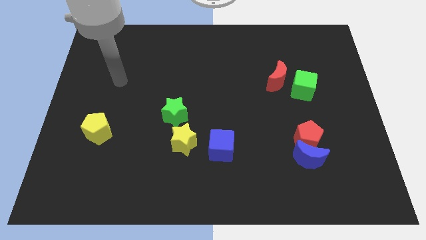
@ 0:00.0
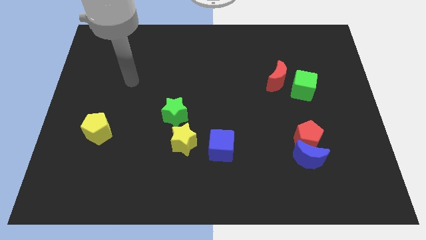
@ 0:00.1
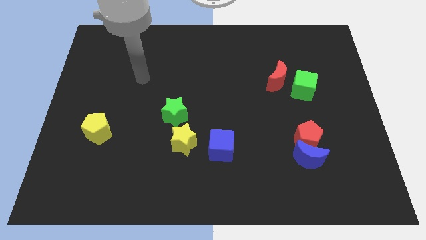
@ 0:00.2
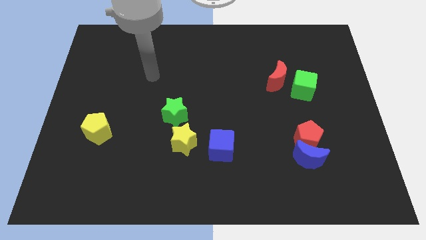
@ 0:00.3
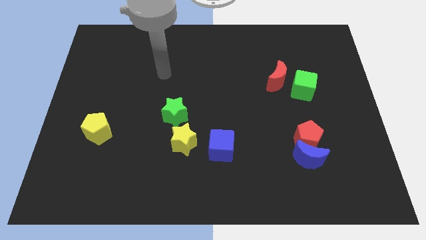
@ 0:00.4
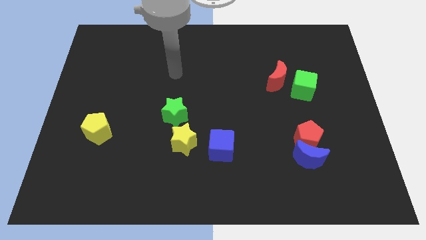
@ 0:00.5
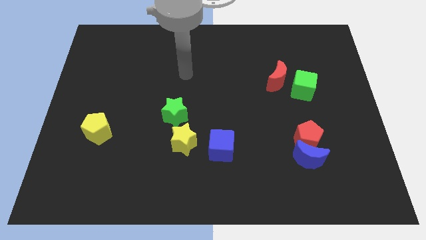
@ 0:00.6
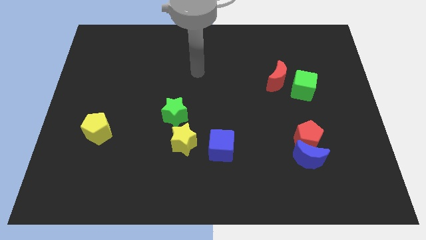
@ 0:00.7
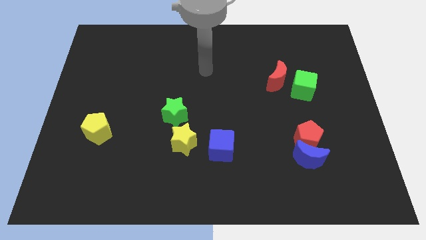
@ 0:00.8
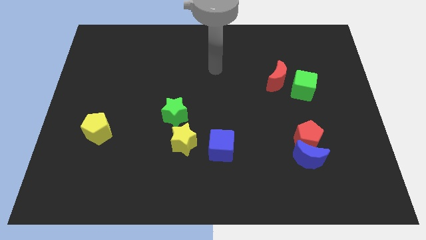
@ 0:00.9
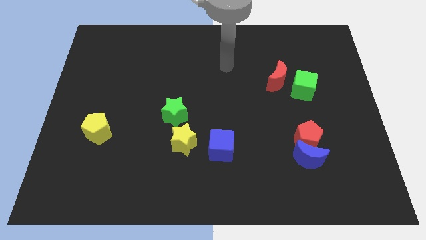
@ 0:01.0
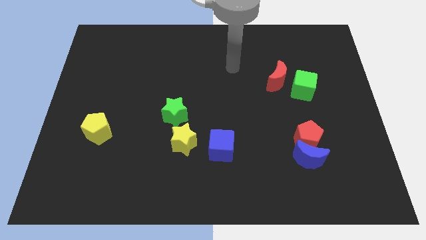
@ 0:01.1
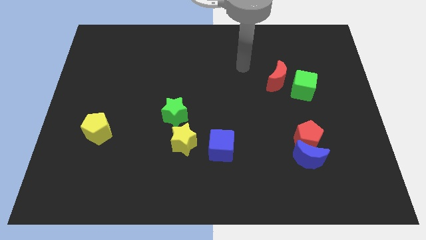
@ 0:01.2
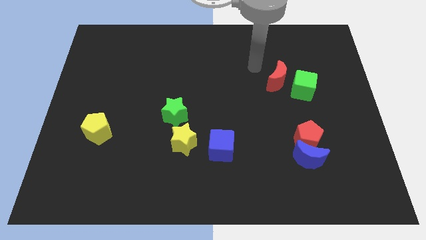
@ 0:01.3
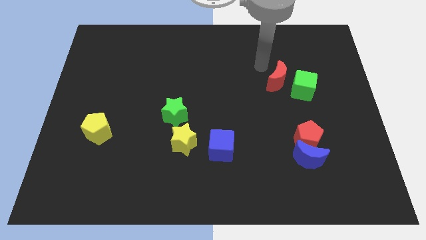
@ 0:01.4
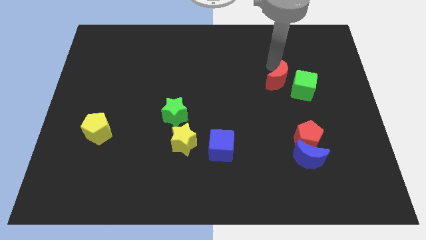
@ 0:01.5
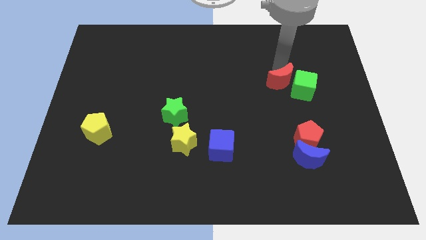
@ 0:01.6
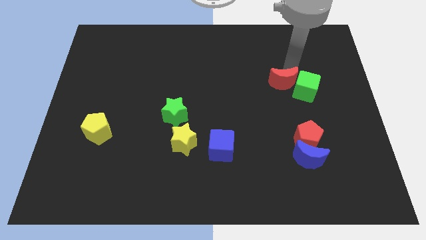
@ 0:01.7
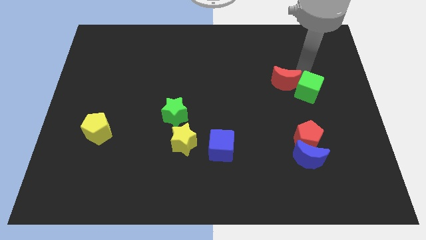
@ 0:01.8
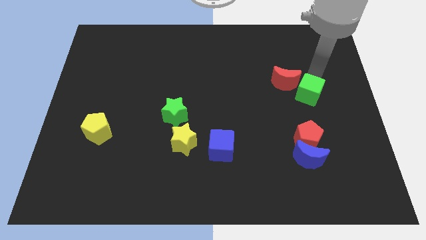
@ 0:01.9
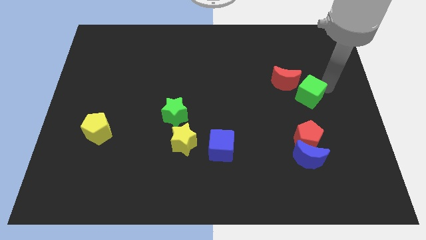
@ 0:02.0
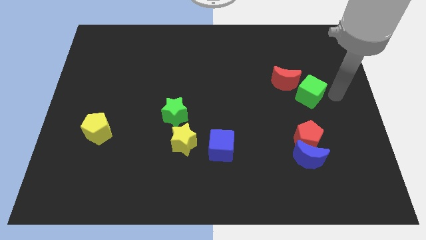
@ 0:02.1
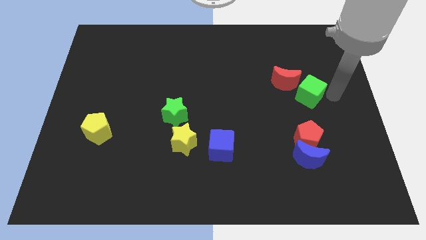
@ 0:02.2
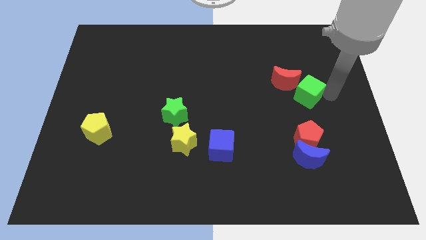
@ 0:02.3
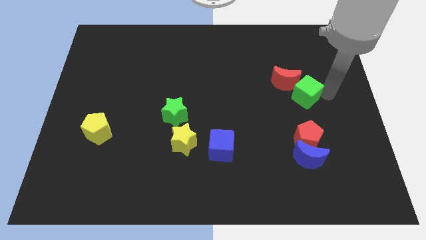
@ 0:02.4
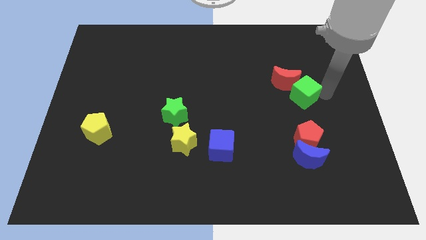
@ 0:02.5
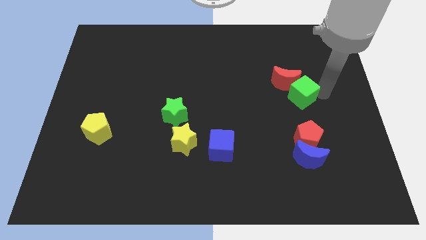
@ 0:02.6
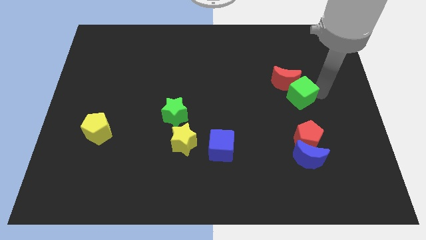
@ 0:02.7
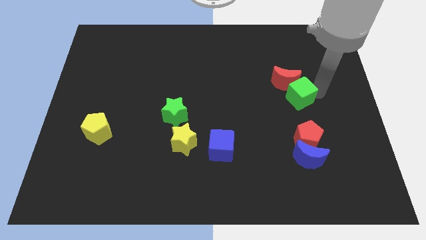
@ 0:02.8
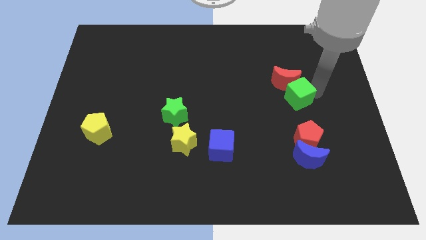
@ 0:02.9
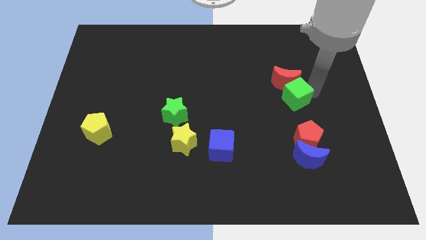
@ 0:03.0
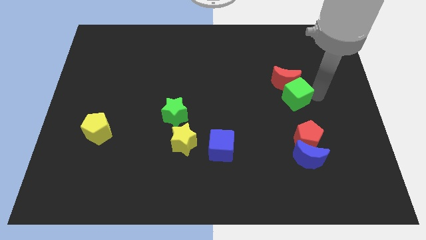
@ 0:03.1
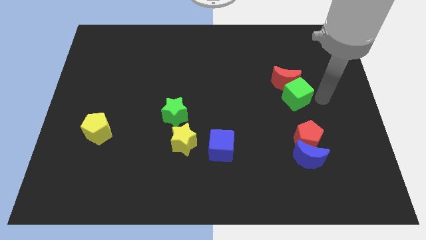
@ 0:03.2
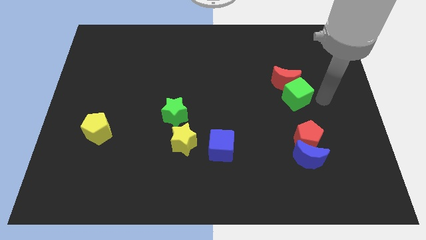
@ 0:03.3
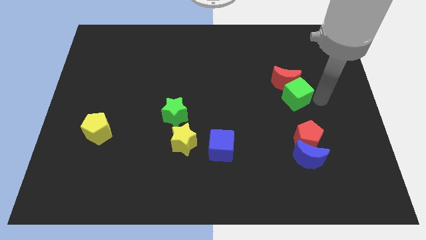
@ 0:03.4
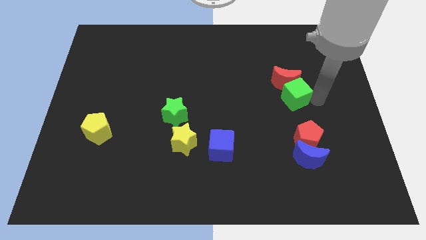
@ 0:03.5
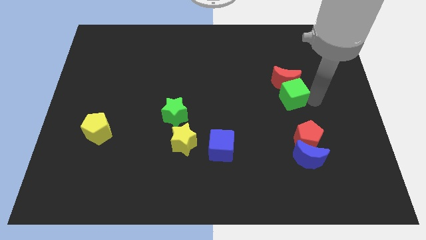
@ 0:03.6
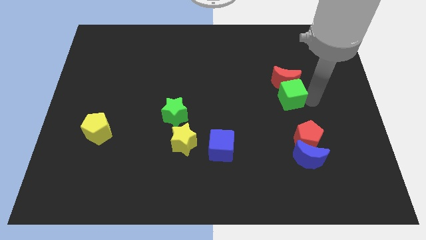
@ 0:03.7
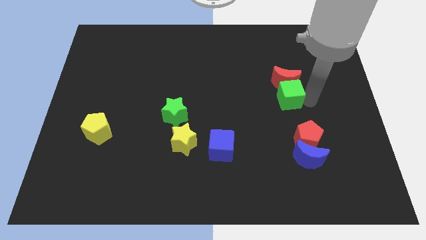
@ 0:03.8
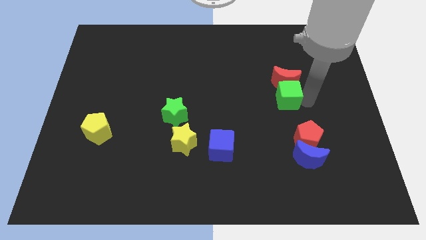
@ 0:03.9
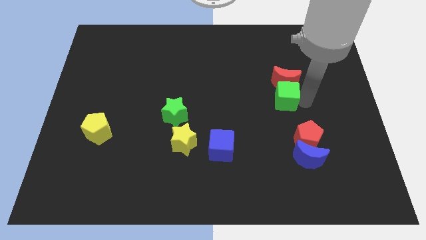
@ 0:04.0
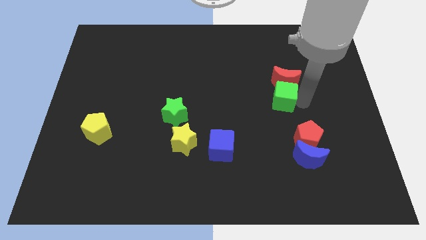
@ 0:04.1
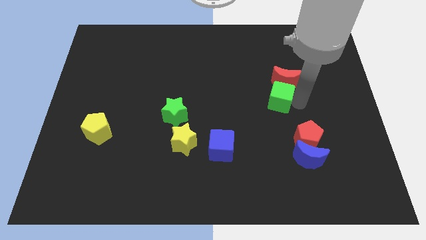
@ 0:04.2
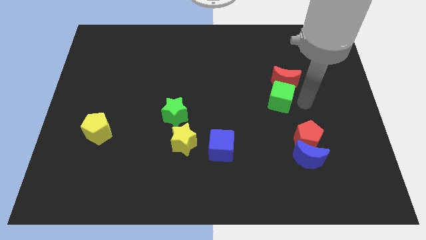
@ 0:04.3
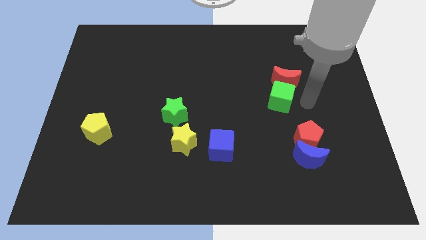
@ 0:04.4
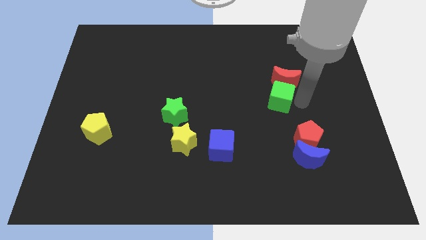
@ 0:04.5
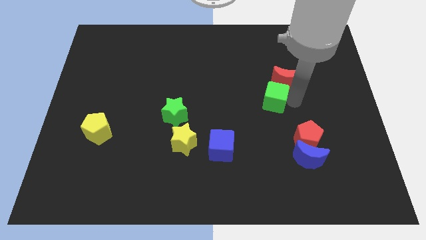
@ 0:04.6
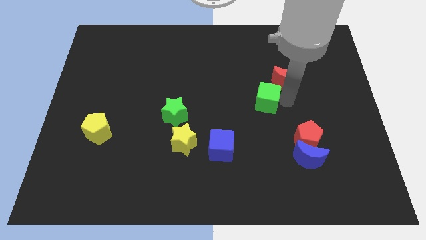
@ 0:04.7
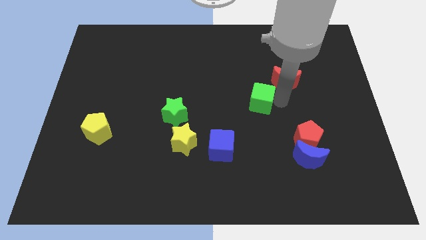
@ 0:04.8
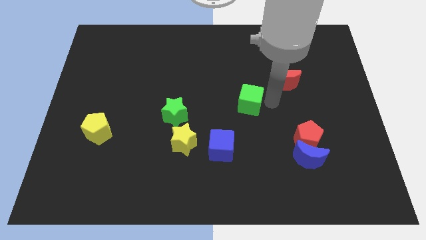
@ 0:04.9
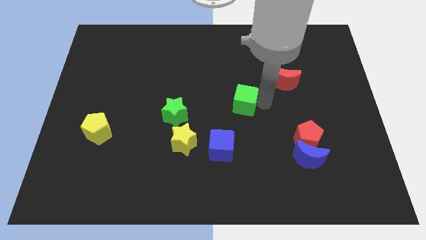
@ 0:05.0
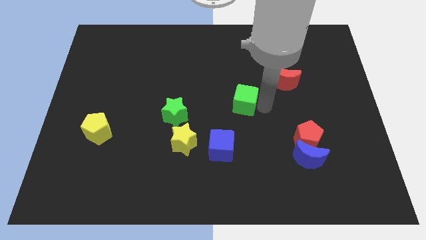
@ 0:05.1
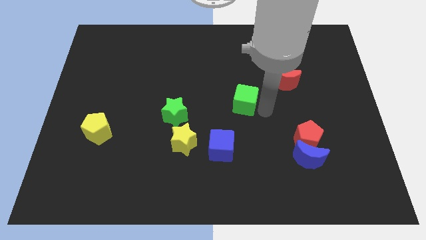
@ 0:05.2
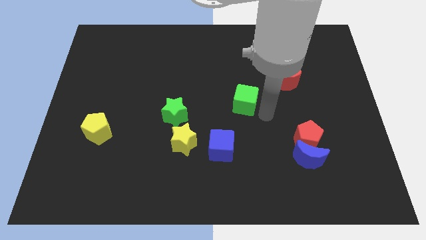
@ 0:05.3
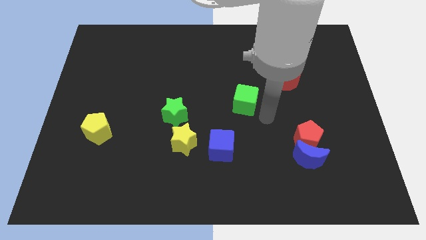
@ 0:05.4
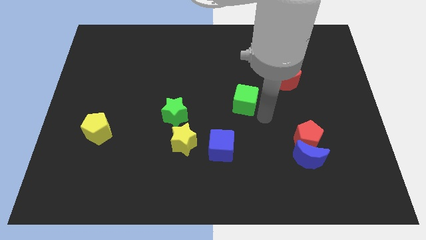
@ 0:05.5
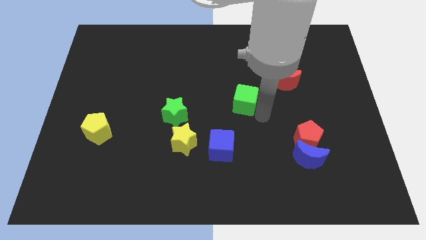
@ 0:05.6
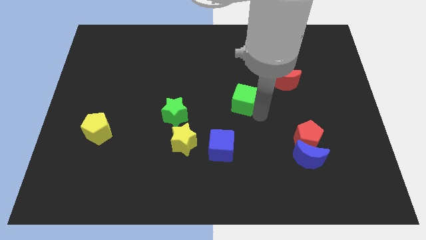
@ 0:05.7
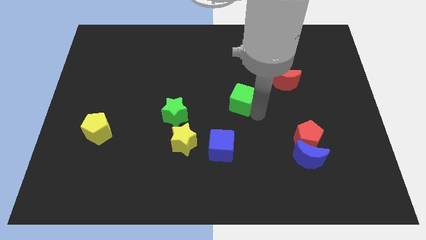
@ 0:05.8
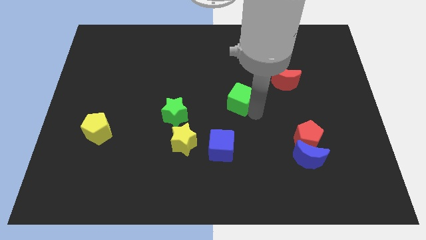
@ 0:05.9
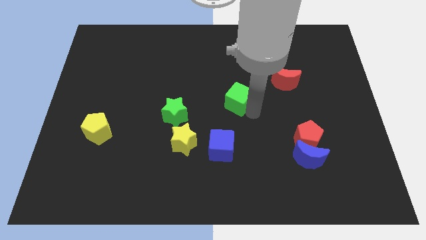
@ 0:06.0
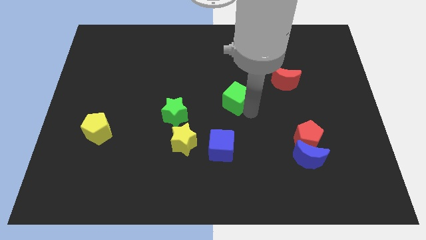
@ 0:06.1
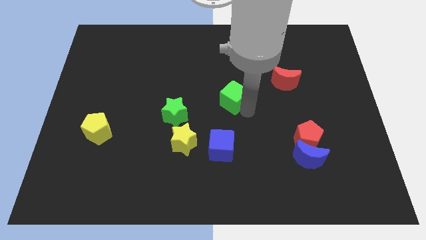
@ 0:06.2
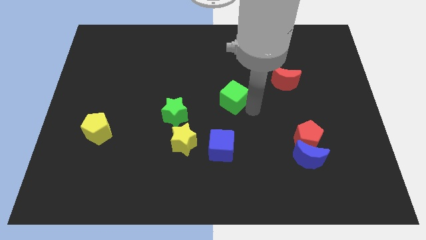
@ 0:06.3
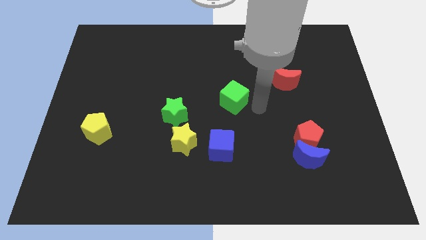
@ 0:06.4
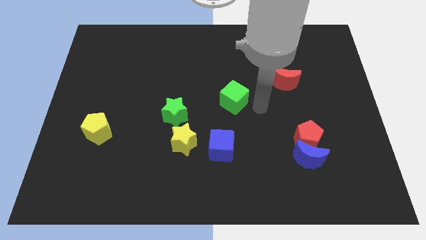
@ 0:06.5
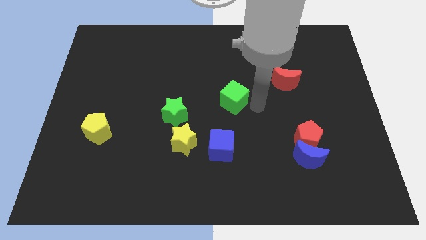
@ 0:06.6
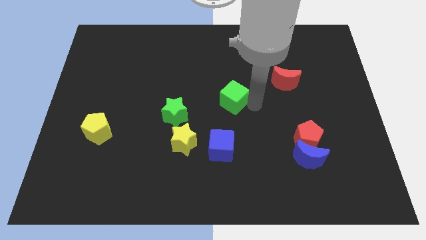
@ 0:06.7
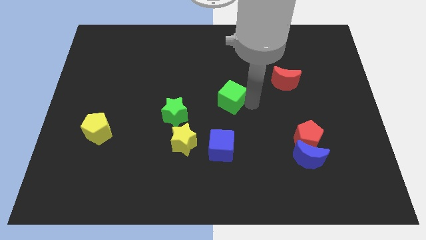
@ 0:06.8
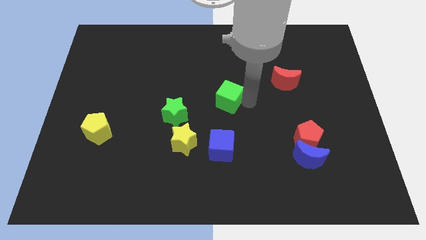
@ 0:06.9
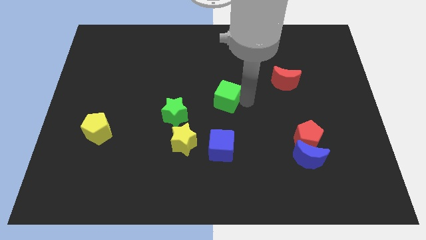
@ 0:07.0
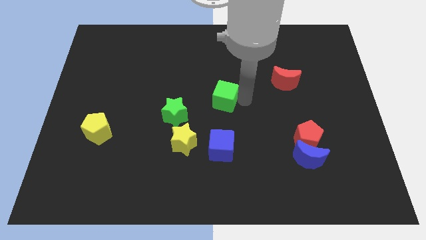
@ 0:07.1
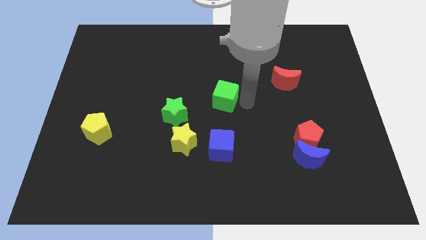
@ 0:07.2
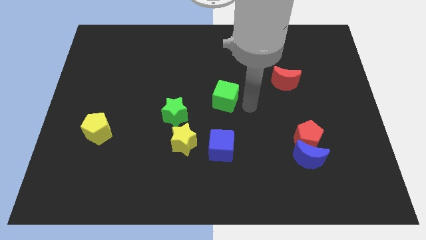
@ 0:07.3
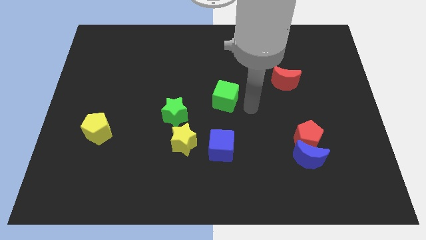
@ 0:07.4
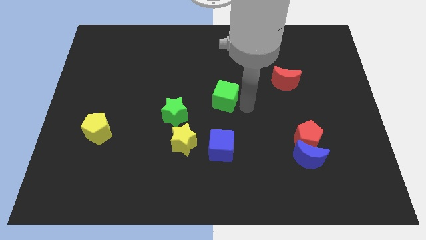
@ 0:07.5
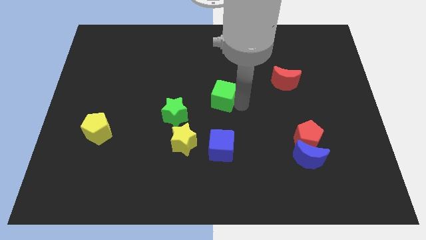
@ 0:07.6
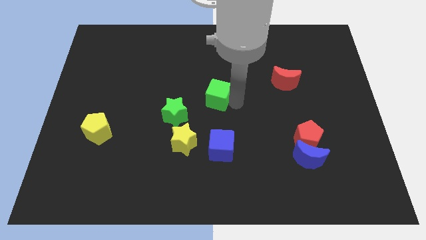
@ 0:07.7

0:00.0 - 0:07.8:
slide the green cube to the left

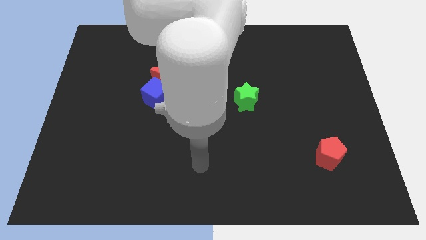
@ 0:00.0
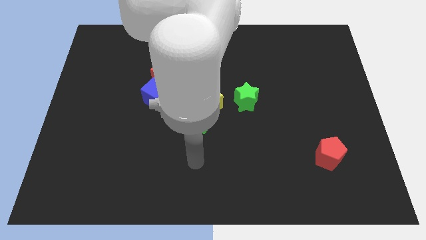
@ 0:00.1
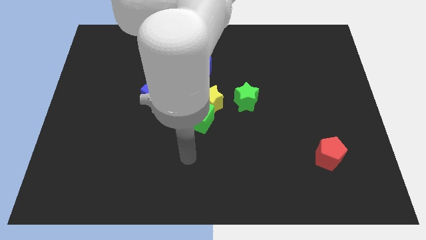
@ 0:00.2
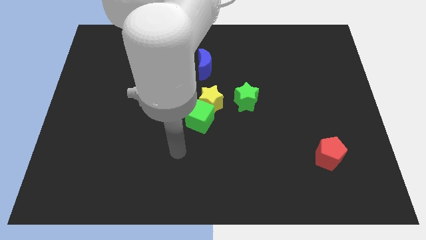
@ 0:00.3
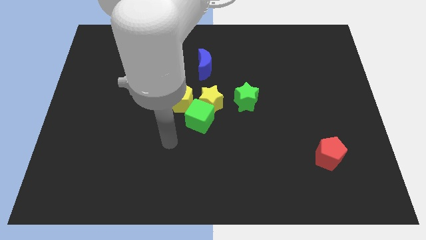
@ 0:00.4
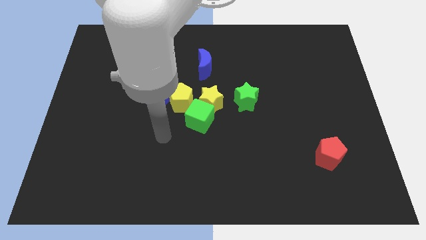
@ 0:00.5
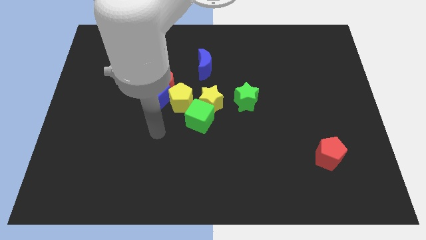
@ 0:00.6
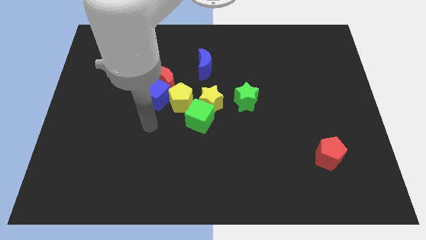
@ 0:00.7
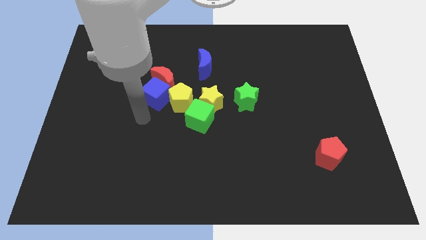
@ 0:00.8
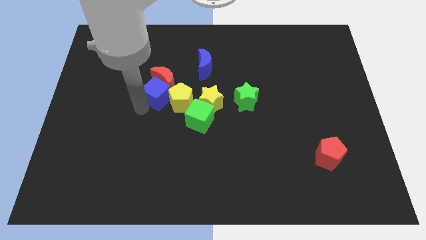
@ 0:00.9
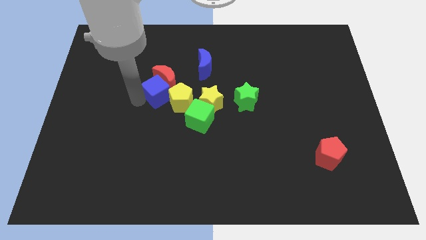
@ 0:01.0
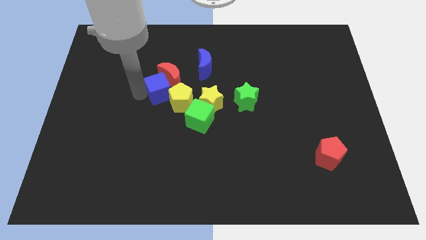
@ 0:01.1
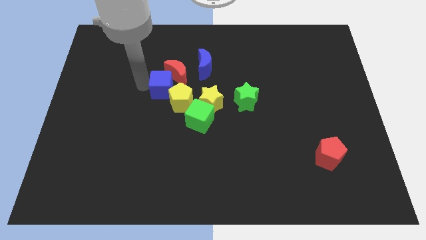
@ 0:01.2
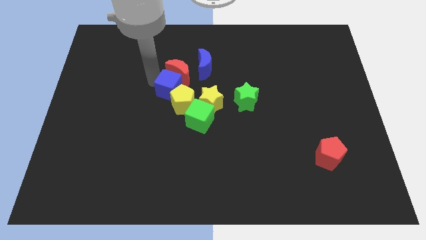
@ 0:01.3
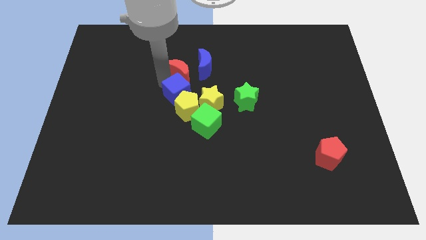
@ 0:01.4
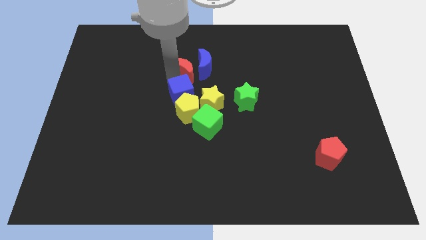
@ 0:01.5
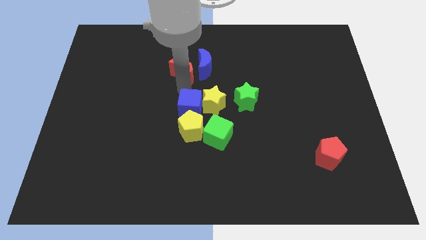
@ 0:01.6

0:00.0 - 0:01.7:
slide the yellow pentagon a bit down and then right
